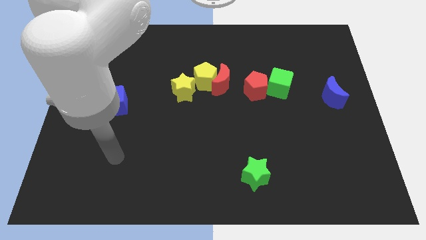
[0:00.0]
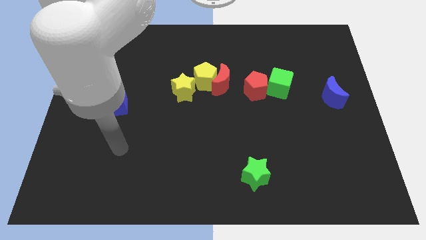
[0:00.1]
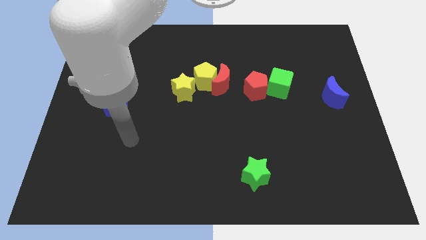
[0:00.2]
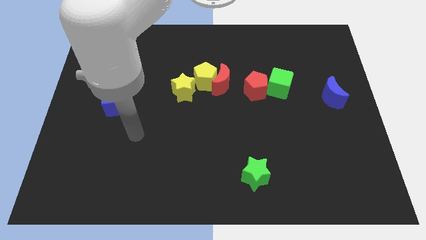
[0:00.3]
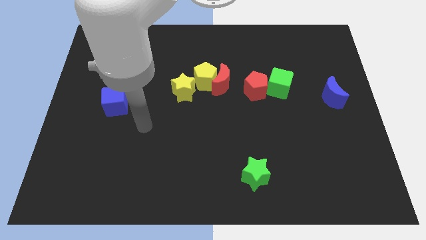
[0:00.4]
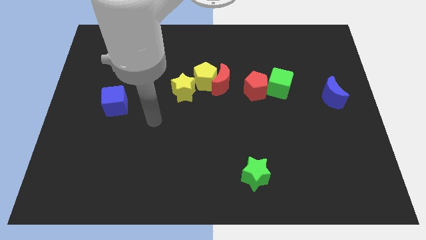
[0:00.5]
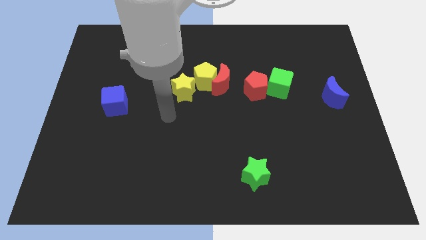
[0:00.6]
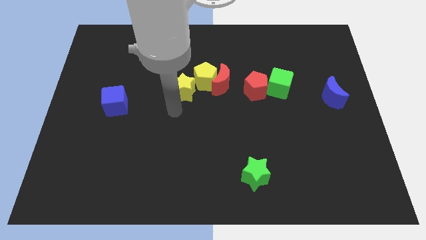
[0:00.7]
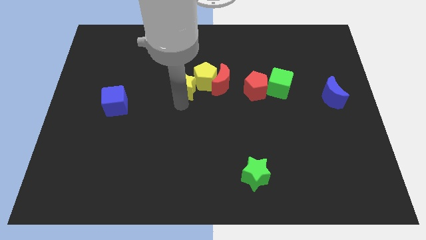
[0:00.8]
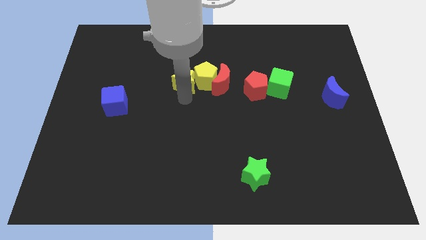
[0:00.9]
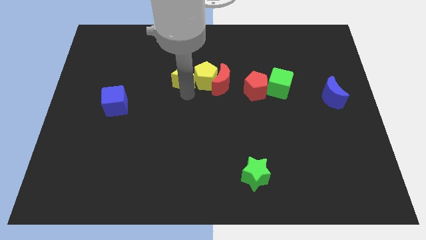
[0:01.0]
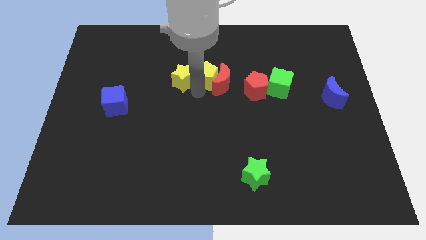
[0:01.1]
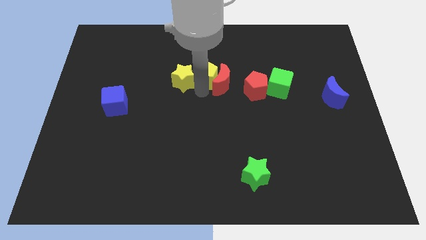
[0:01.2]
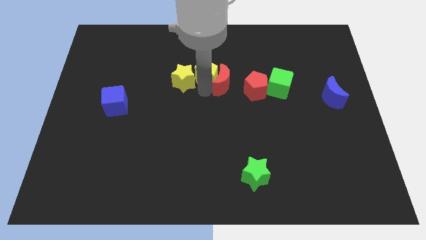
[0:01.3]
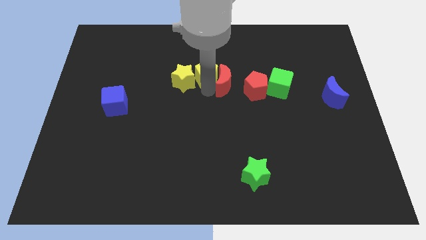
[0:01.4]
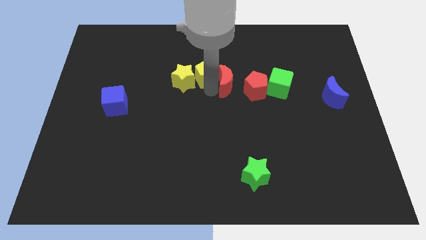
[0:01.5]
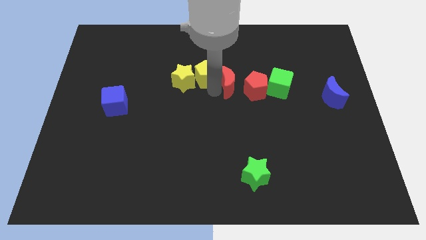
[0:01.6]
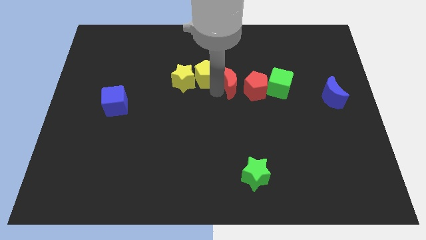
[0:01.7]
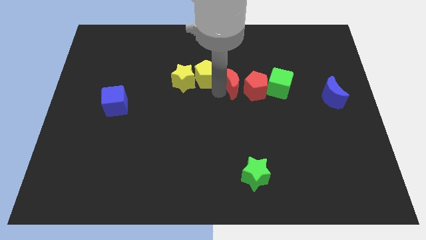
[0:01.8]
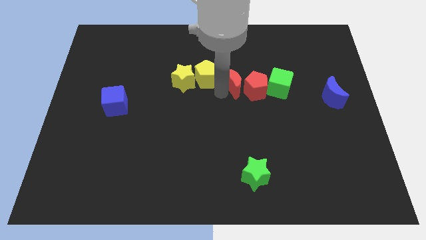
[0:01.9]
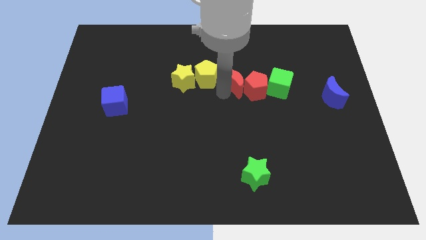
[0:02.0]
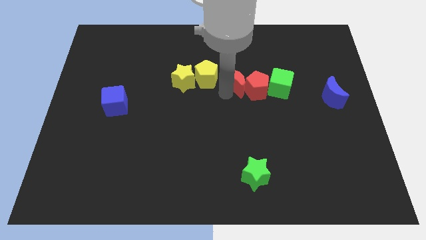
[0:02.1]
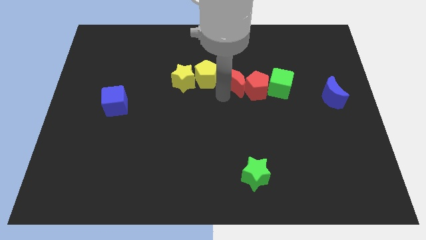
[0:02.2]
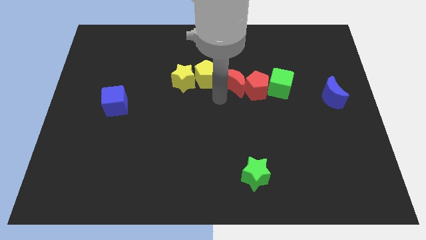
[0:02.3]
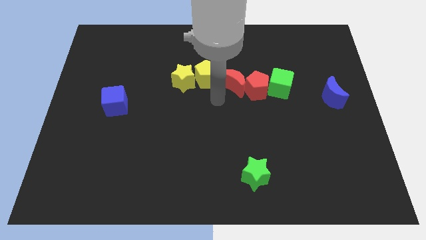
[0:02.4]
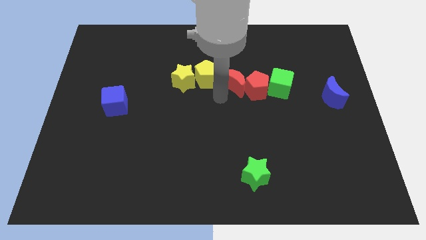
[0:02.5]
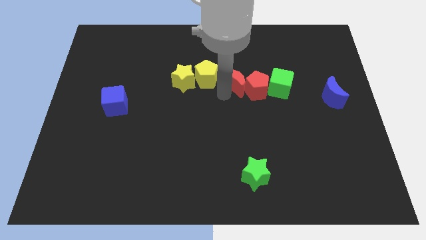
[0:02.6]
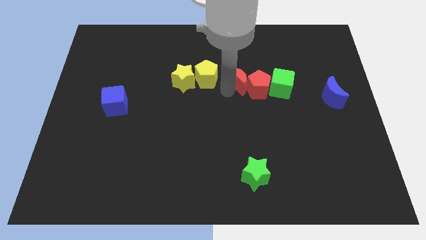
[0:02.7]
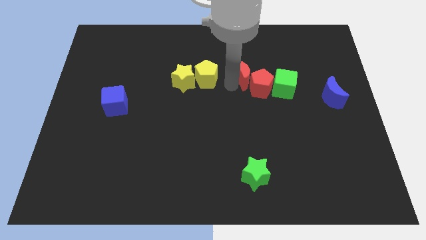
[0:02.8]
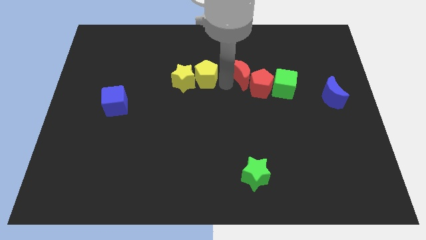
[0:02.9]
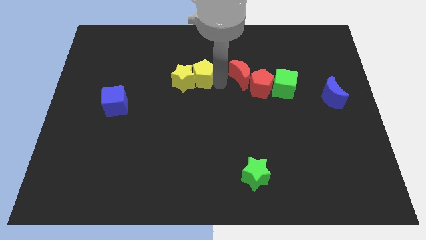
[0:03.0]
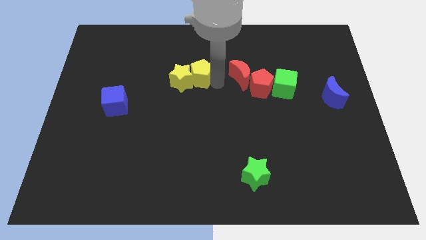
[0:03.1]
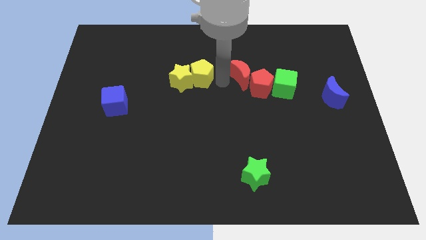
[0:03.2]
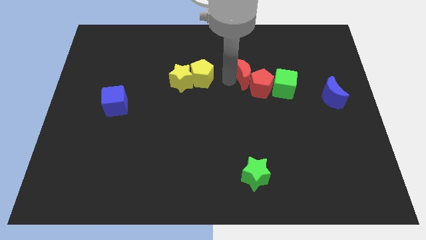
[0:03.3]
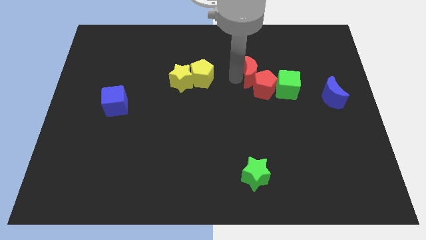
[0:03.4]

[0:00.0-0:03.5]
slide the red moon to the right a bit

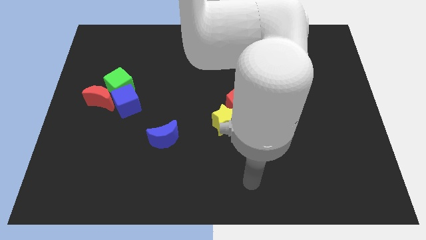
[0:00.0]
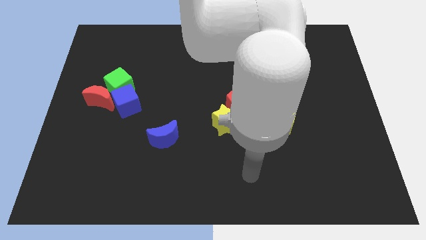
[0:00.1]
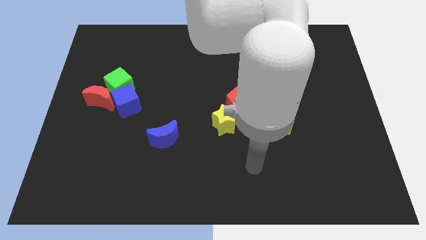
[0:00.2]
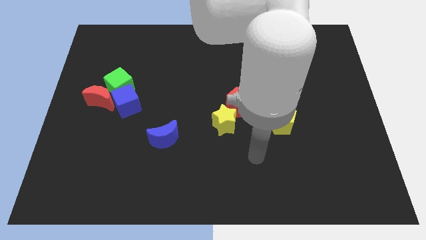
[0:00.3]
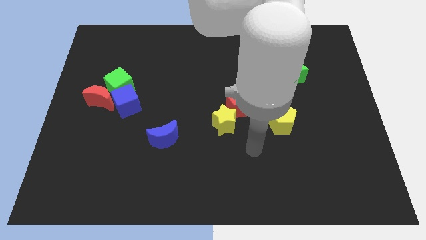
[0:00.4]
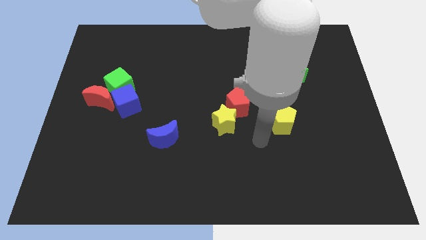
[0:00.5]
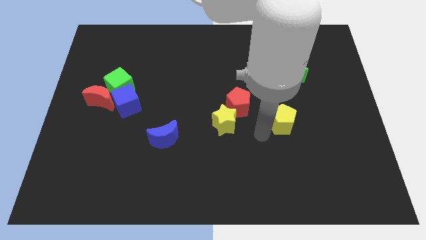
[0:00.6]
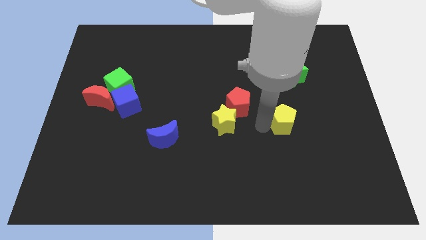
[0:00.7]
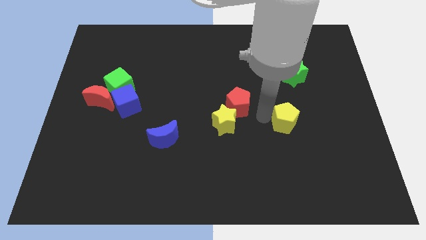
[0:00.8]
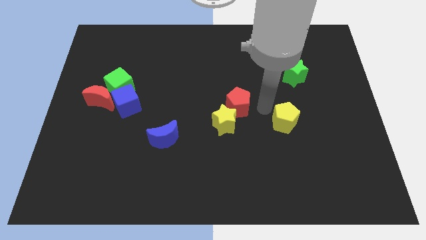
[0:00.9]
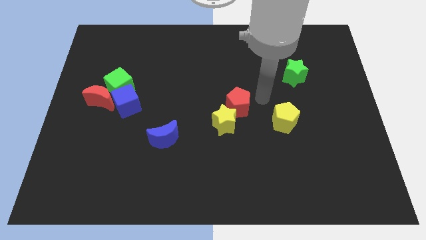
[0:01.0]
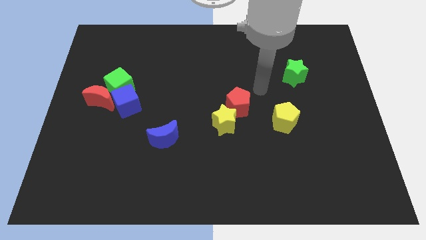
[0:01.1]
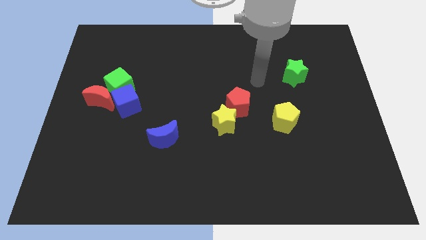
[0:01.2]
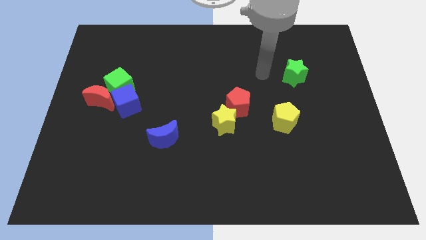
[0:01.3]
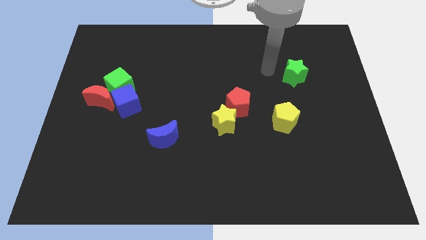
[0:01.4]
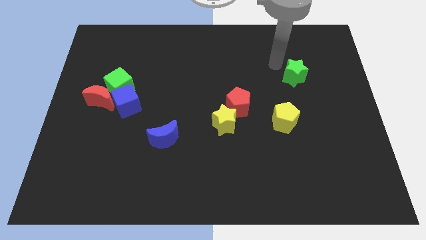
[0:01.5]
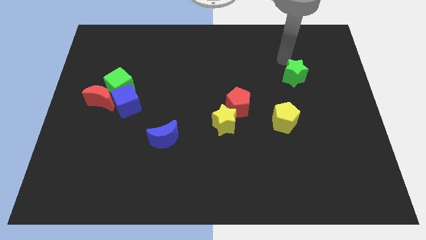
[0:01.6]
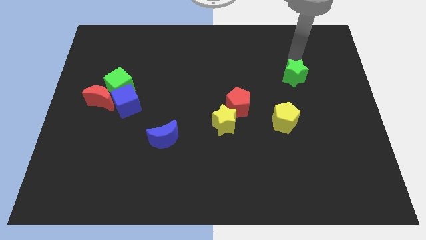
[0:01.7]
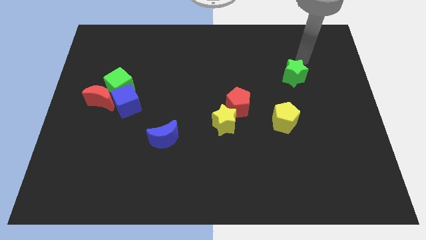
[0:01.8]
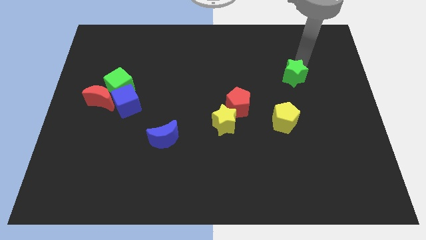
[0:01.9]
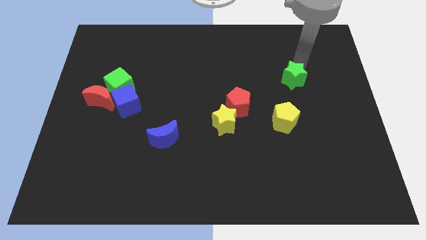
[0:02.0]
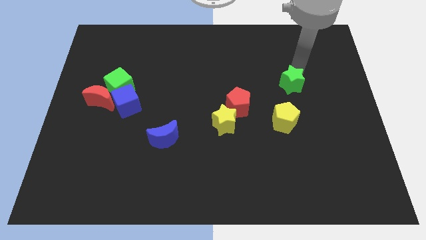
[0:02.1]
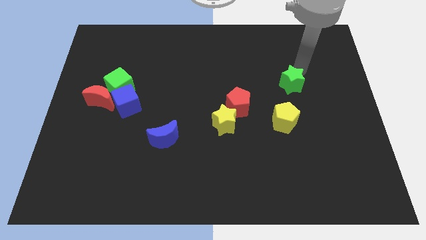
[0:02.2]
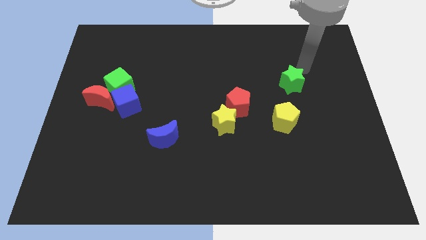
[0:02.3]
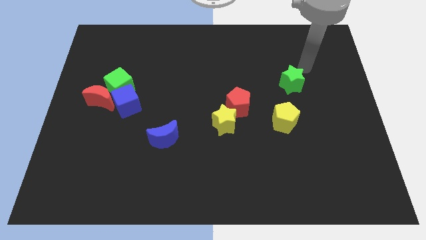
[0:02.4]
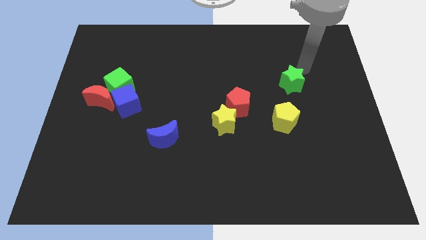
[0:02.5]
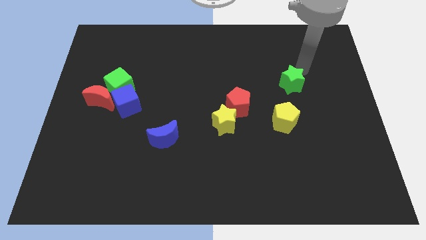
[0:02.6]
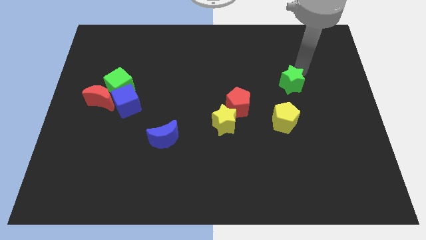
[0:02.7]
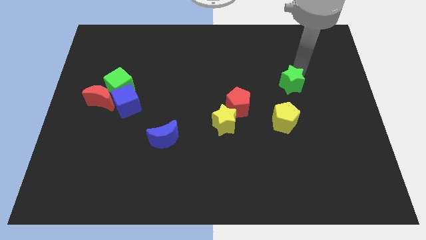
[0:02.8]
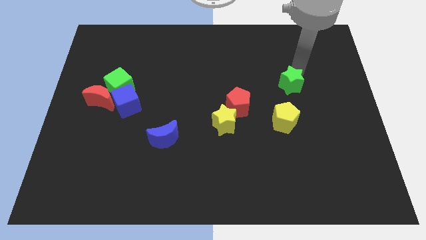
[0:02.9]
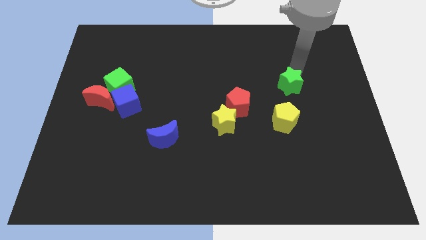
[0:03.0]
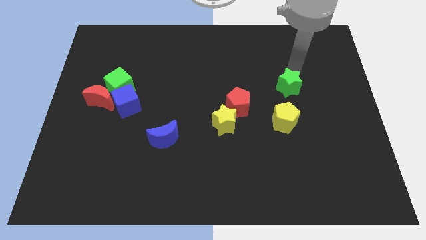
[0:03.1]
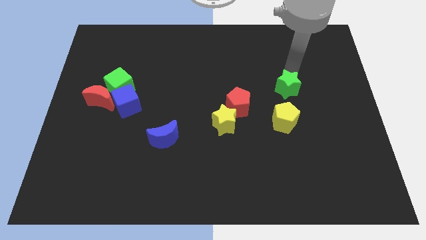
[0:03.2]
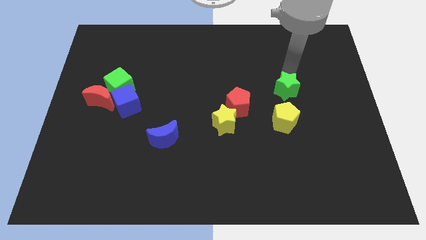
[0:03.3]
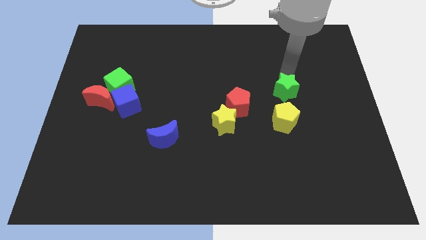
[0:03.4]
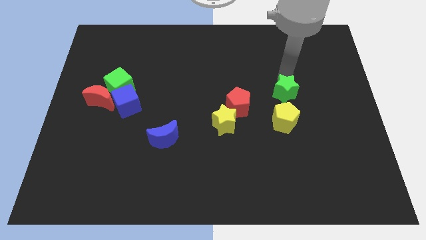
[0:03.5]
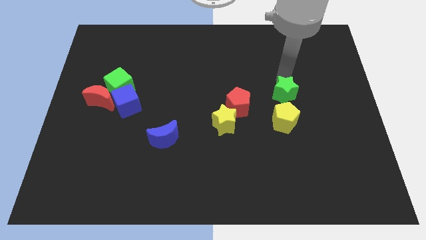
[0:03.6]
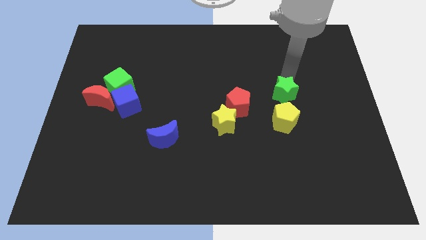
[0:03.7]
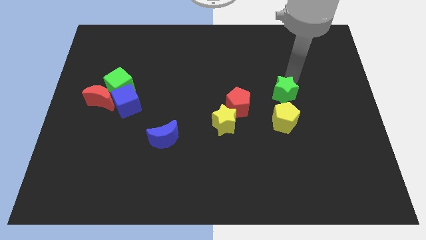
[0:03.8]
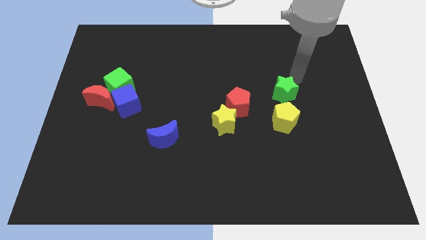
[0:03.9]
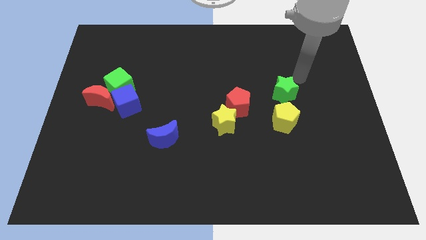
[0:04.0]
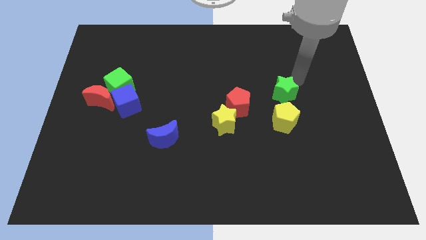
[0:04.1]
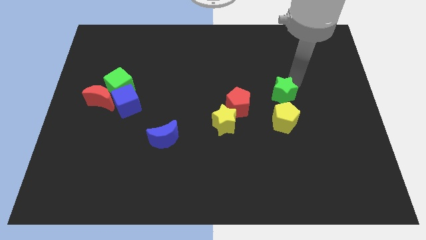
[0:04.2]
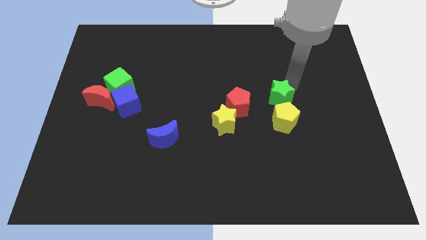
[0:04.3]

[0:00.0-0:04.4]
slightly push the green star downwards and then to the left

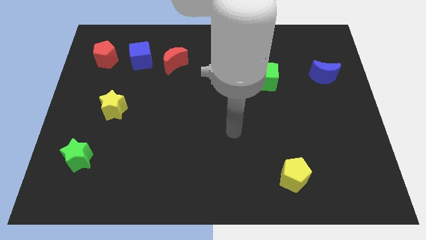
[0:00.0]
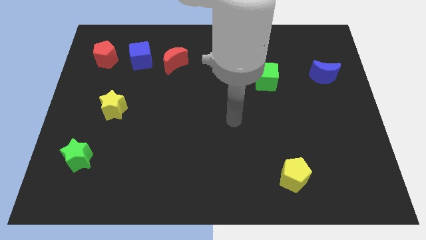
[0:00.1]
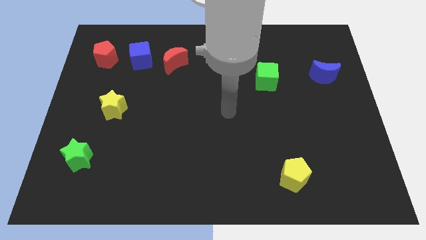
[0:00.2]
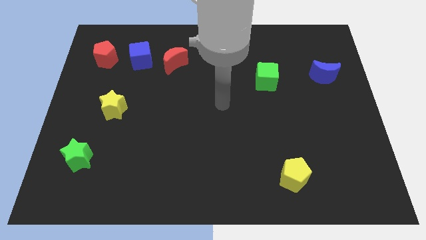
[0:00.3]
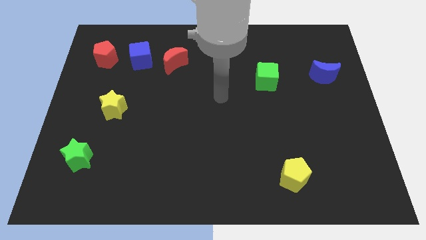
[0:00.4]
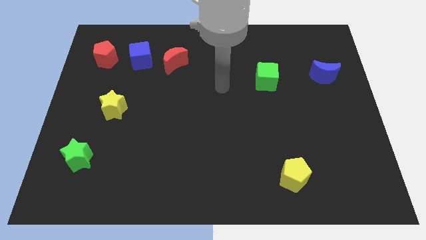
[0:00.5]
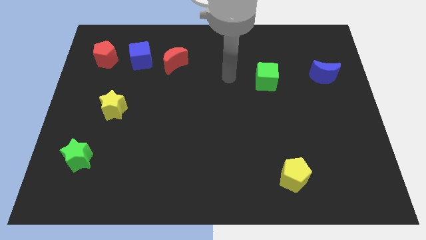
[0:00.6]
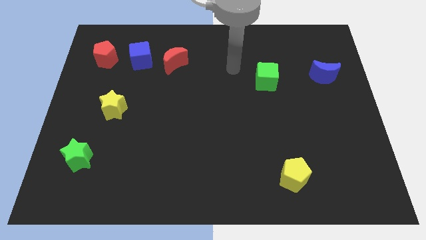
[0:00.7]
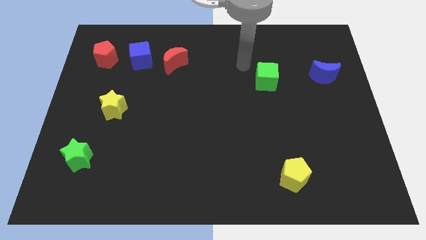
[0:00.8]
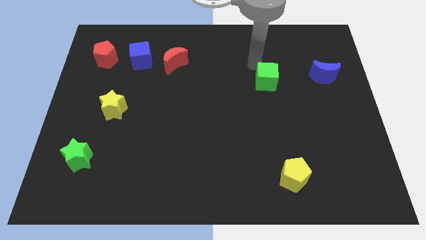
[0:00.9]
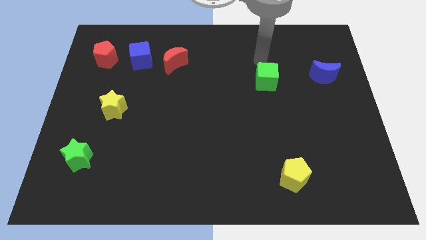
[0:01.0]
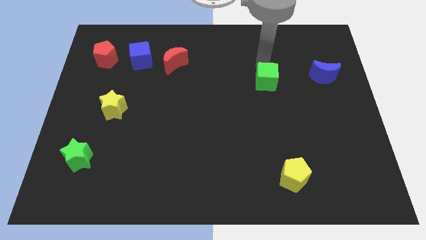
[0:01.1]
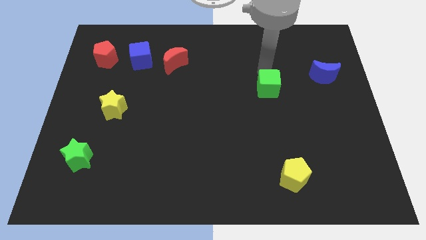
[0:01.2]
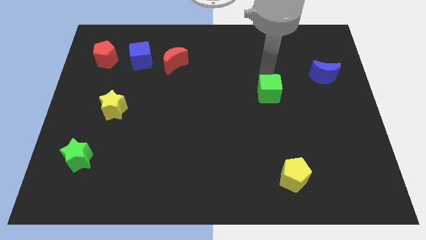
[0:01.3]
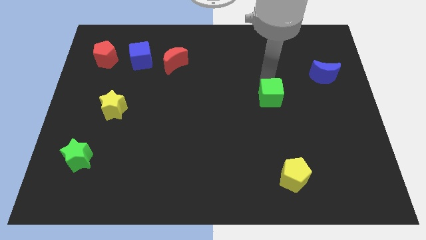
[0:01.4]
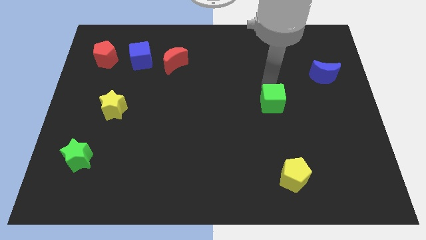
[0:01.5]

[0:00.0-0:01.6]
slightly push the green cube downwards
